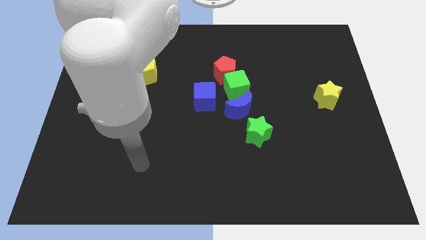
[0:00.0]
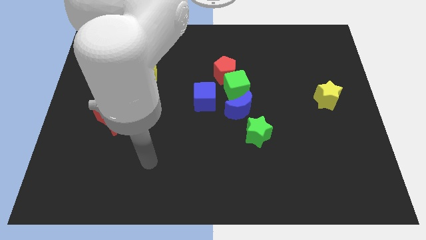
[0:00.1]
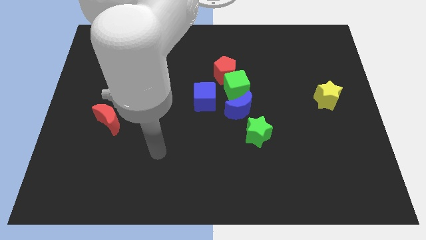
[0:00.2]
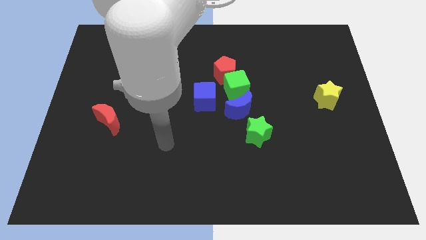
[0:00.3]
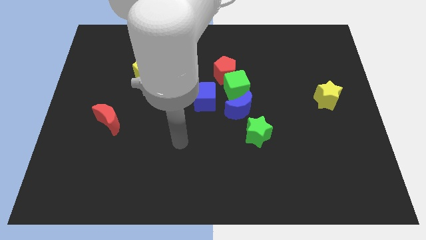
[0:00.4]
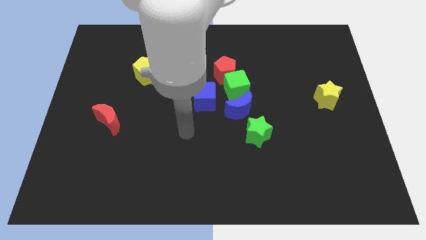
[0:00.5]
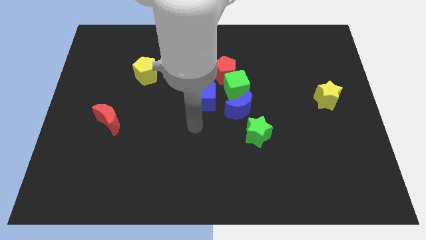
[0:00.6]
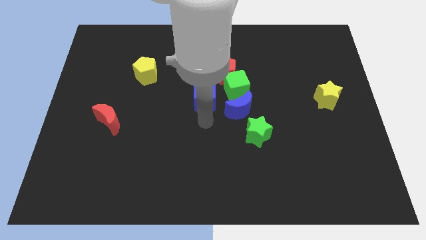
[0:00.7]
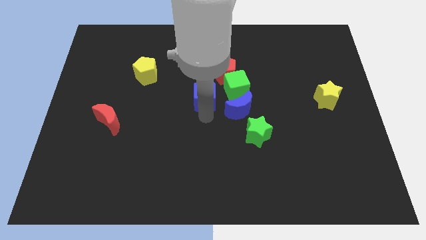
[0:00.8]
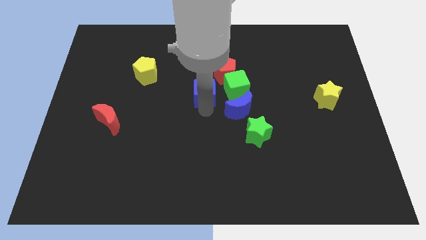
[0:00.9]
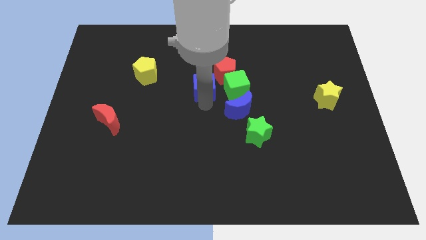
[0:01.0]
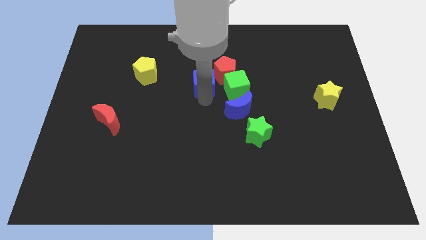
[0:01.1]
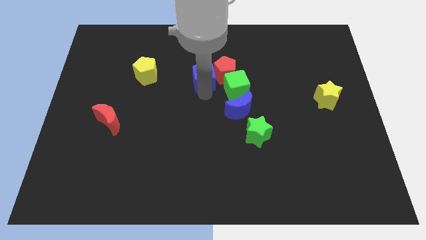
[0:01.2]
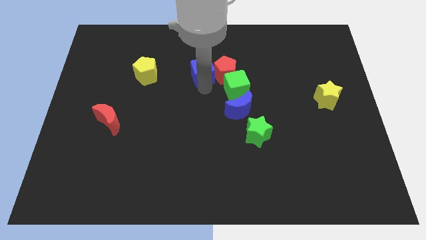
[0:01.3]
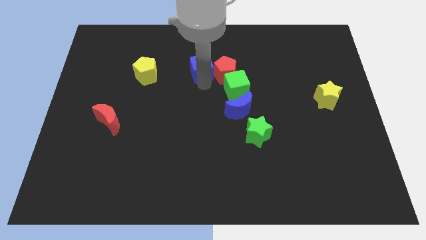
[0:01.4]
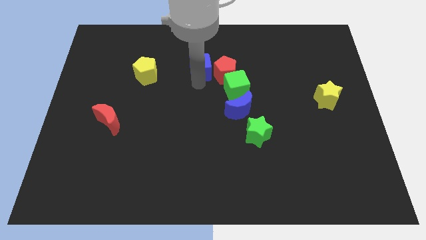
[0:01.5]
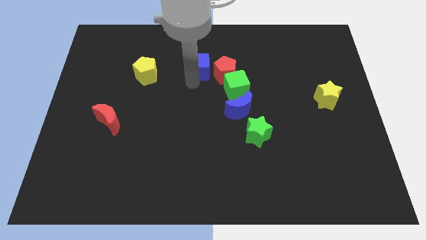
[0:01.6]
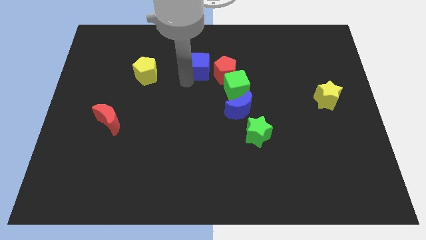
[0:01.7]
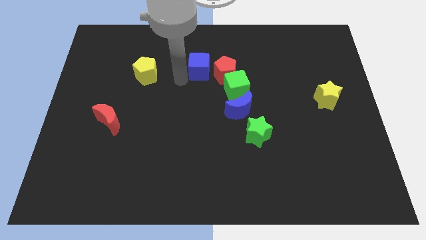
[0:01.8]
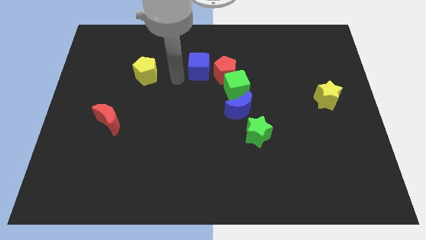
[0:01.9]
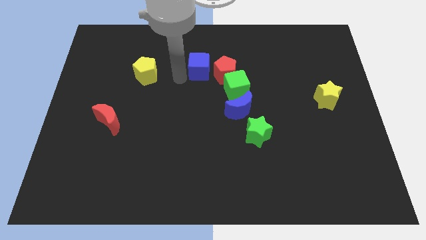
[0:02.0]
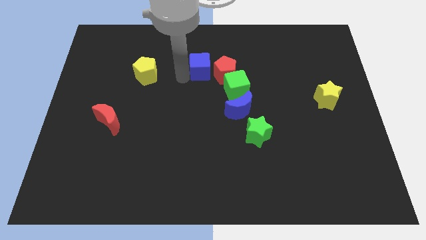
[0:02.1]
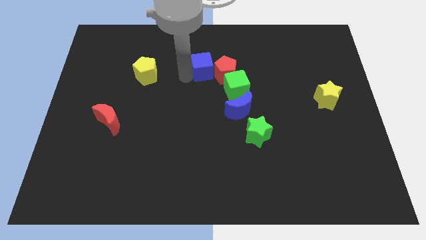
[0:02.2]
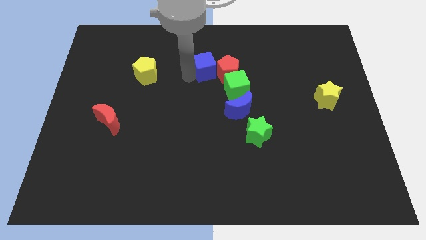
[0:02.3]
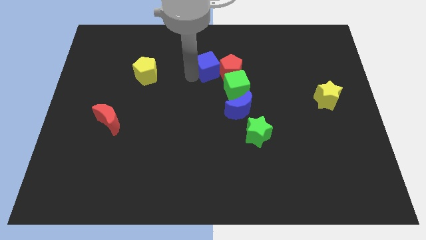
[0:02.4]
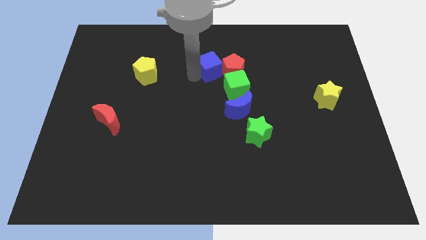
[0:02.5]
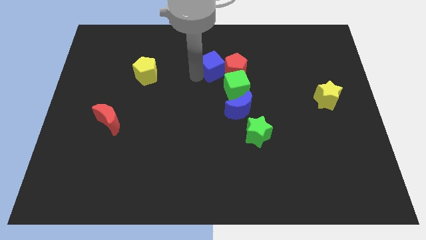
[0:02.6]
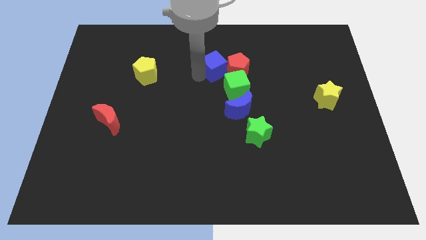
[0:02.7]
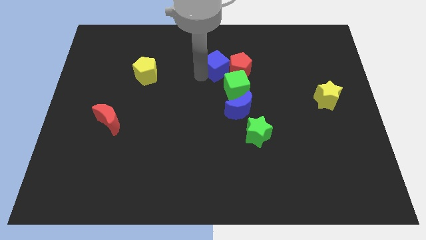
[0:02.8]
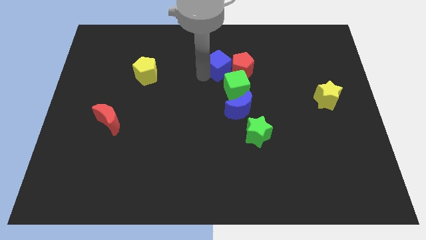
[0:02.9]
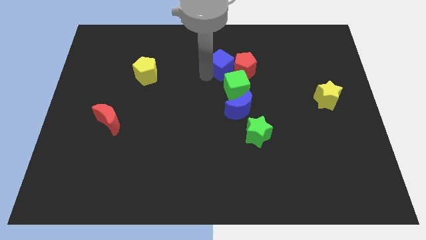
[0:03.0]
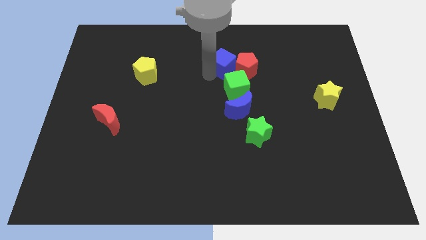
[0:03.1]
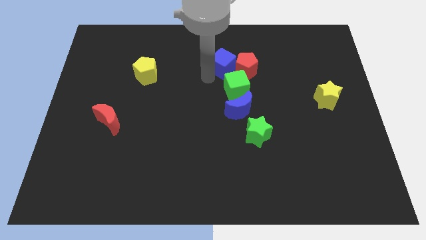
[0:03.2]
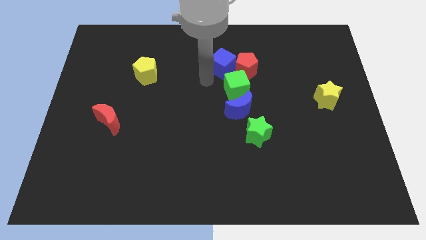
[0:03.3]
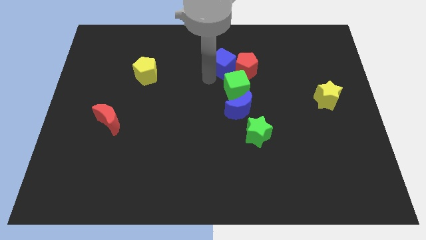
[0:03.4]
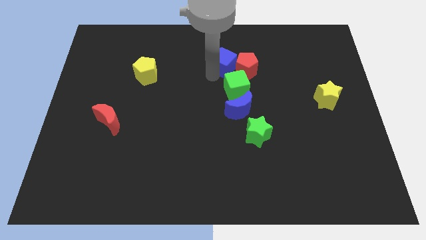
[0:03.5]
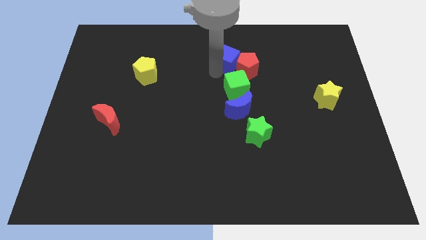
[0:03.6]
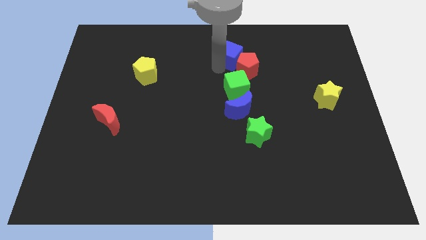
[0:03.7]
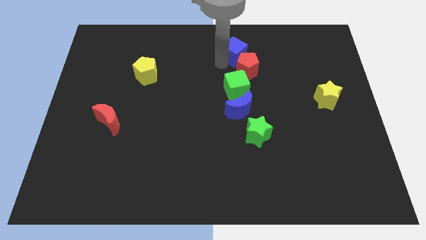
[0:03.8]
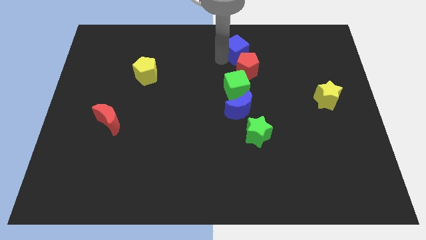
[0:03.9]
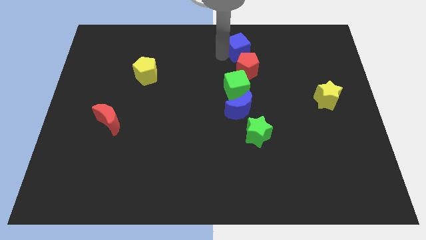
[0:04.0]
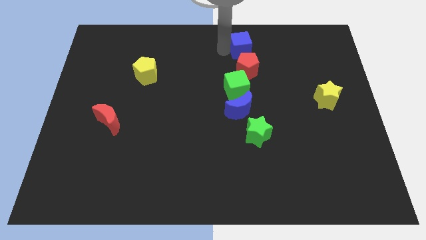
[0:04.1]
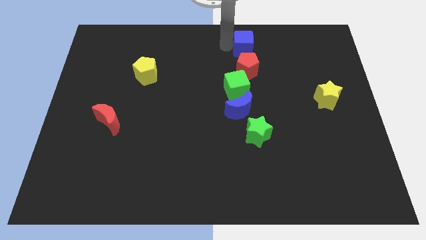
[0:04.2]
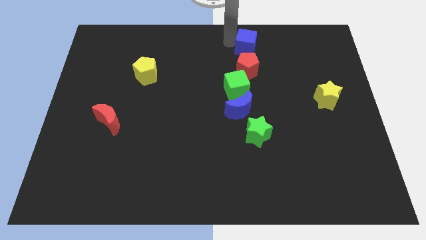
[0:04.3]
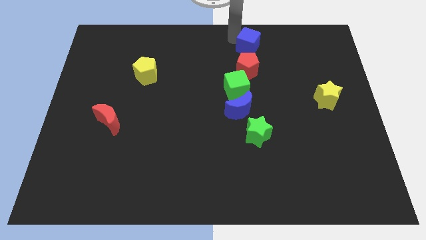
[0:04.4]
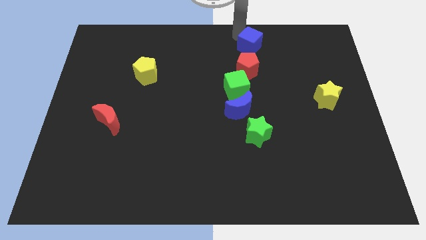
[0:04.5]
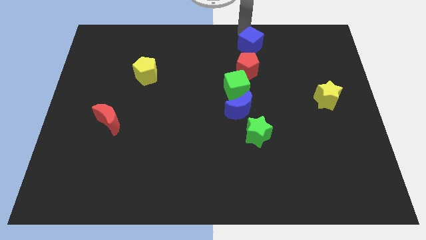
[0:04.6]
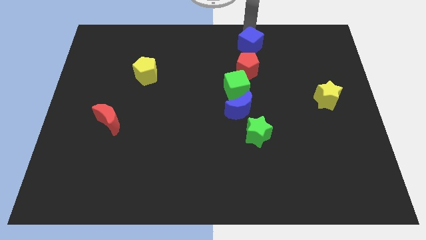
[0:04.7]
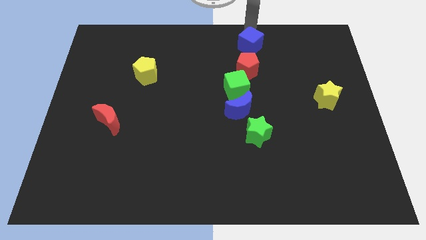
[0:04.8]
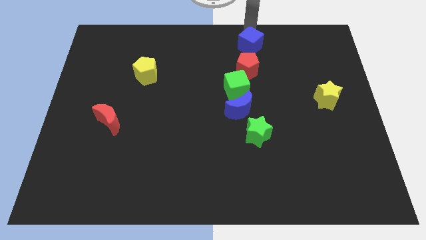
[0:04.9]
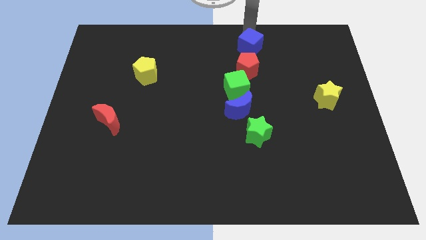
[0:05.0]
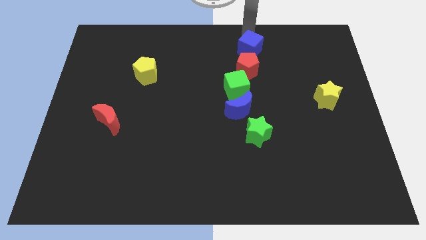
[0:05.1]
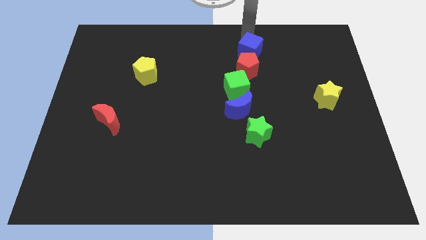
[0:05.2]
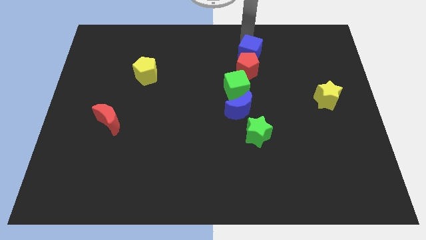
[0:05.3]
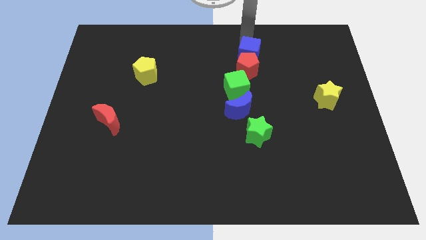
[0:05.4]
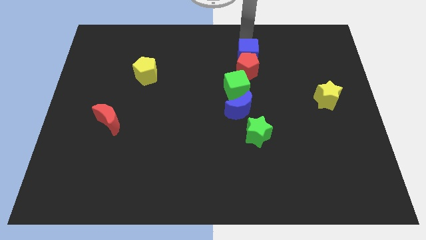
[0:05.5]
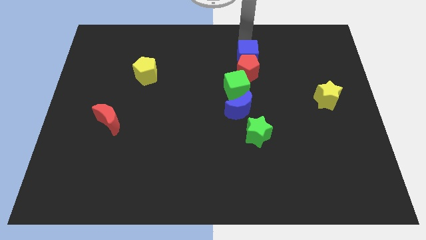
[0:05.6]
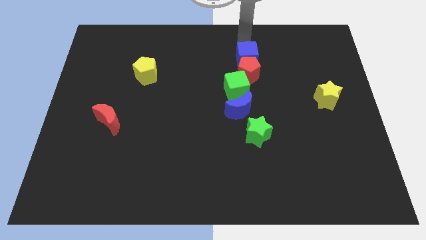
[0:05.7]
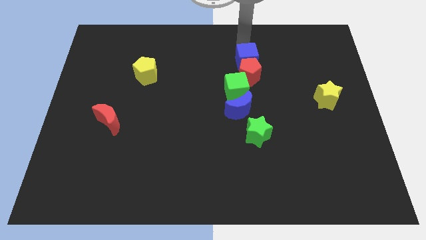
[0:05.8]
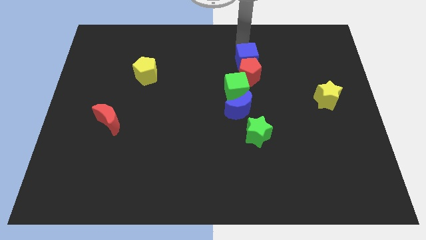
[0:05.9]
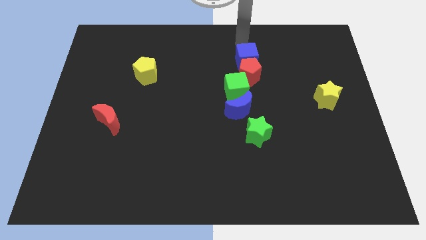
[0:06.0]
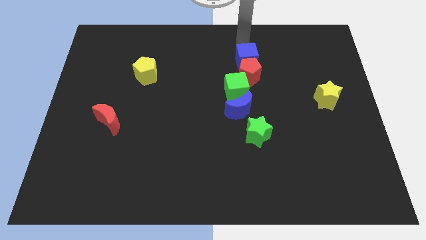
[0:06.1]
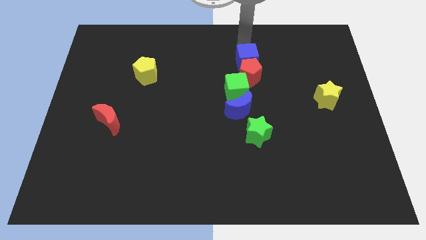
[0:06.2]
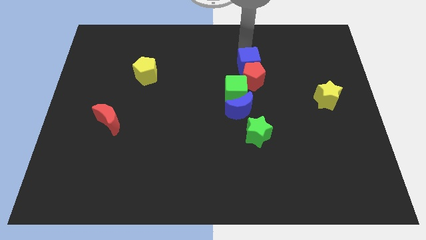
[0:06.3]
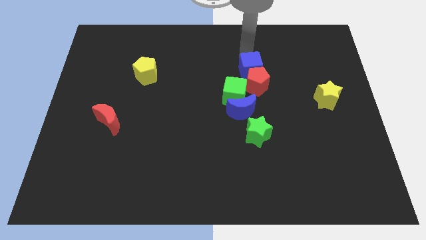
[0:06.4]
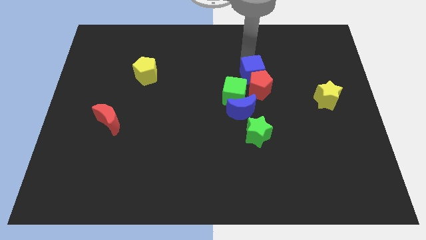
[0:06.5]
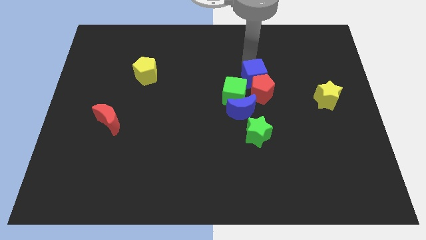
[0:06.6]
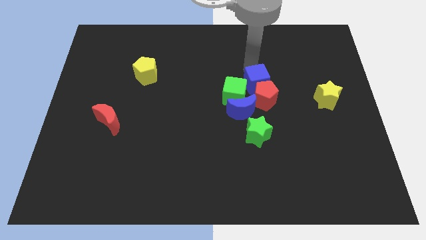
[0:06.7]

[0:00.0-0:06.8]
put the blue cube to the top right of the blue moon

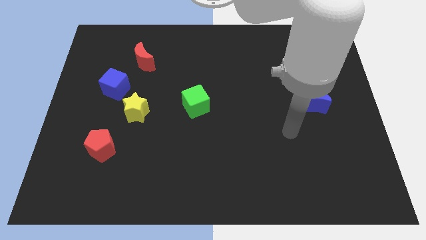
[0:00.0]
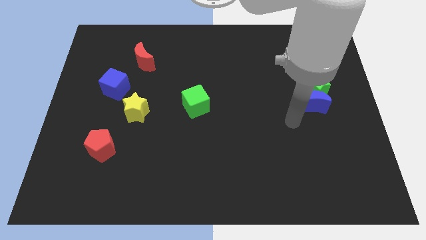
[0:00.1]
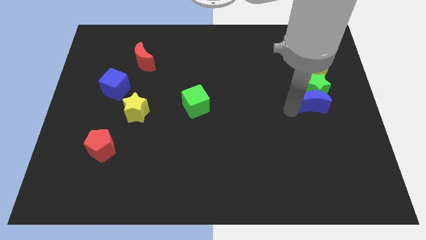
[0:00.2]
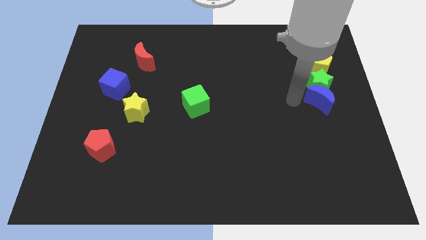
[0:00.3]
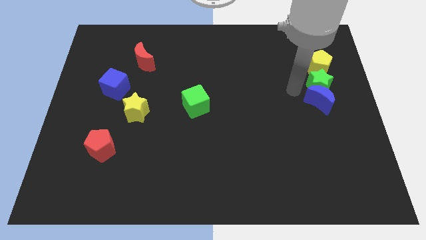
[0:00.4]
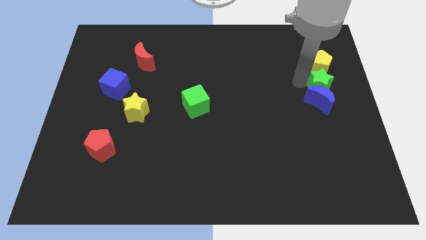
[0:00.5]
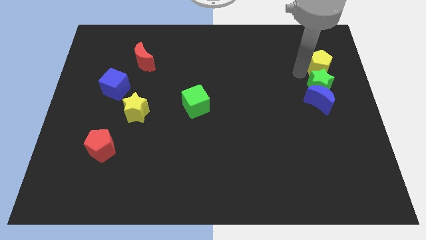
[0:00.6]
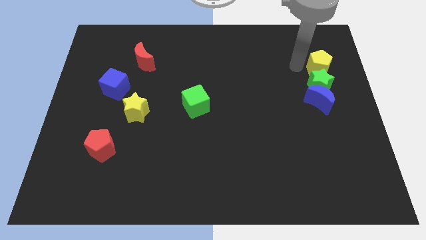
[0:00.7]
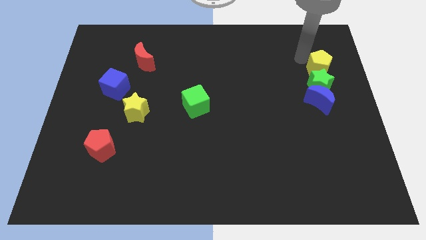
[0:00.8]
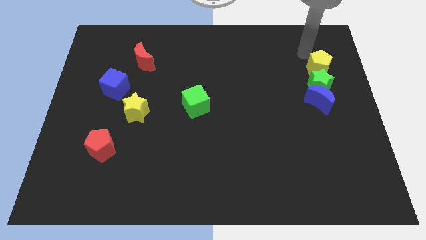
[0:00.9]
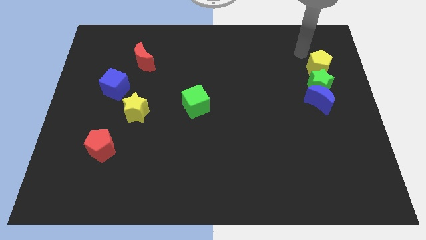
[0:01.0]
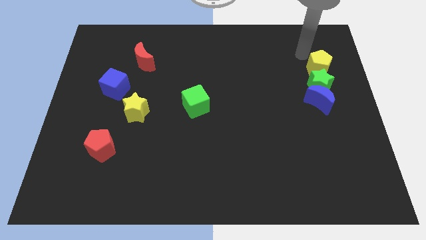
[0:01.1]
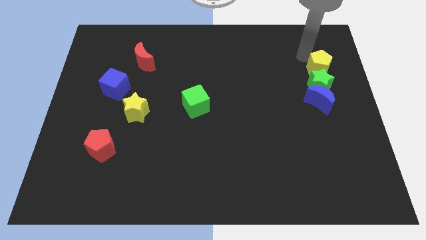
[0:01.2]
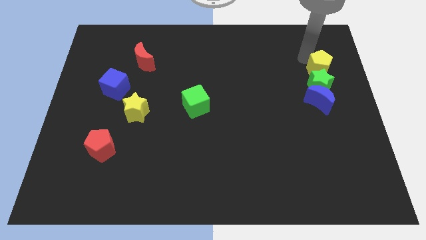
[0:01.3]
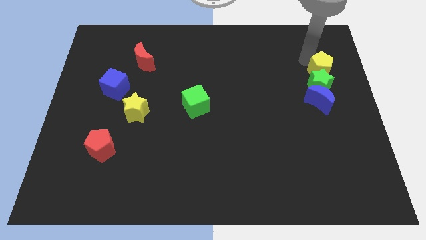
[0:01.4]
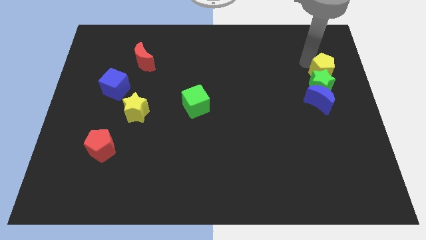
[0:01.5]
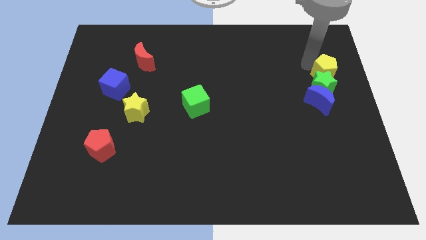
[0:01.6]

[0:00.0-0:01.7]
push the yellow pentagon to the top right side of the blue moon
